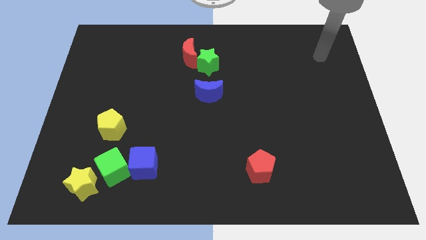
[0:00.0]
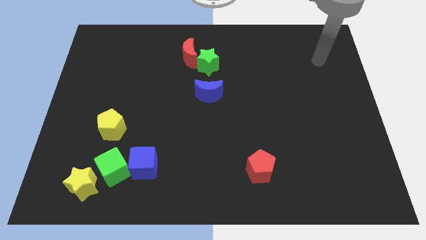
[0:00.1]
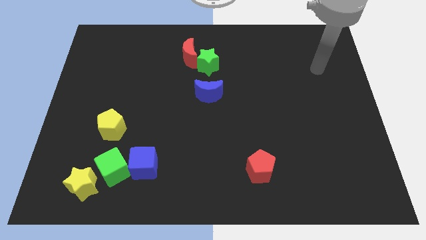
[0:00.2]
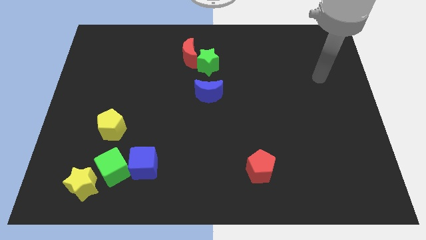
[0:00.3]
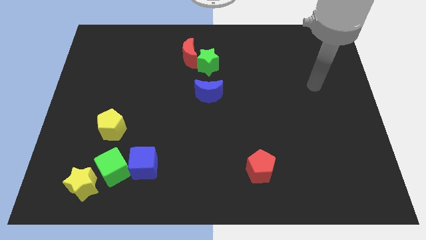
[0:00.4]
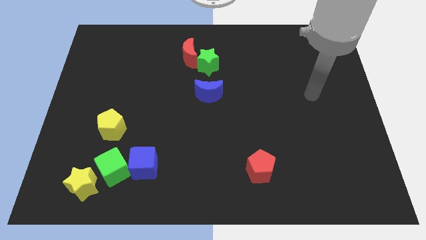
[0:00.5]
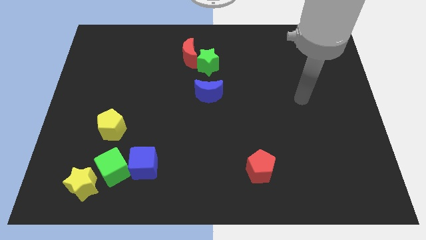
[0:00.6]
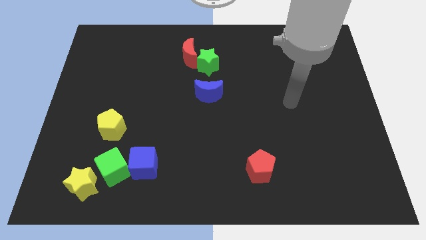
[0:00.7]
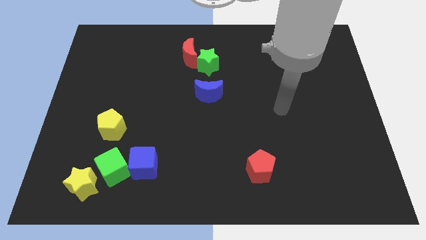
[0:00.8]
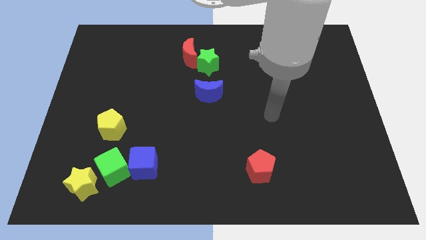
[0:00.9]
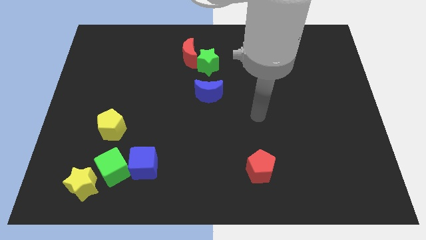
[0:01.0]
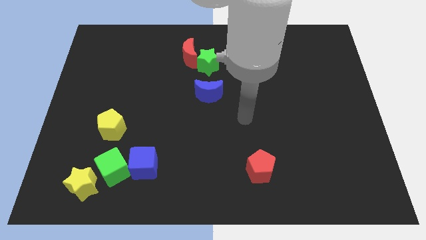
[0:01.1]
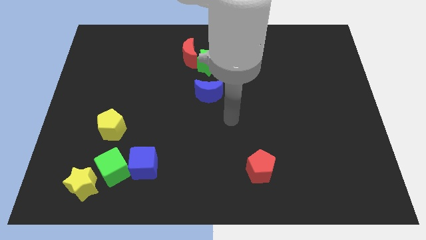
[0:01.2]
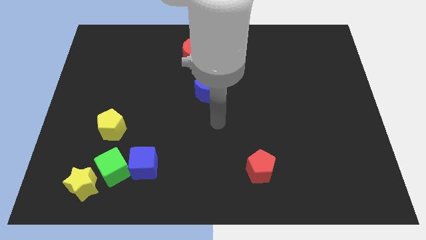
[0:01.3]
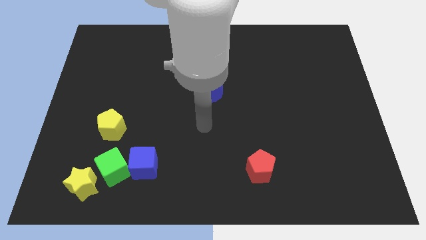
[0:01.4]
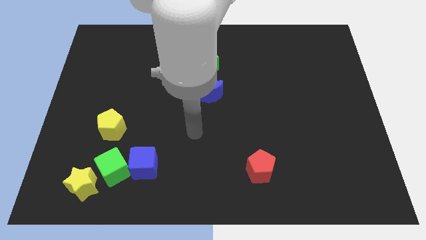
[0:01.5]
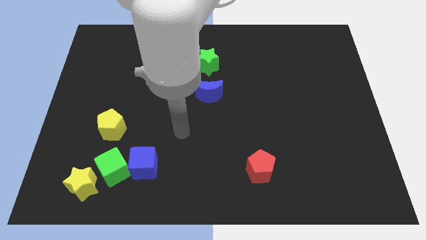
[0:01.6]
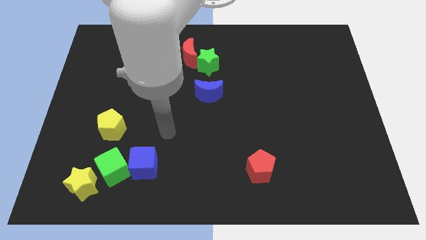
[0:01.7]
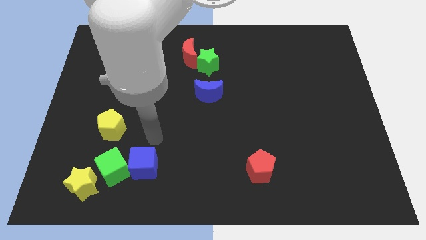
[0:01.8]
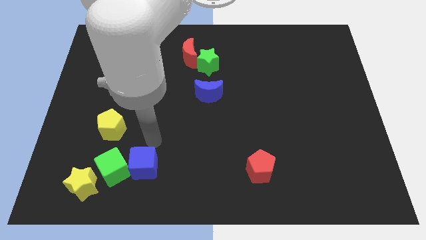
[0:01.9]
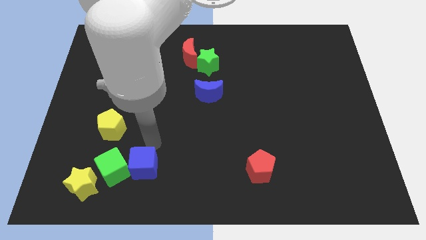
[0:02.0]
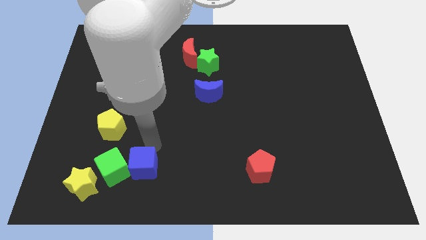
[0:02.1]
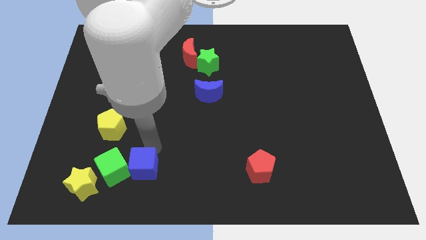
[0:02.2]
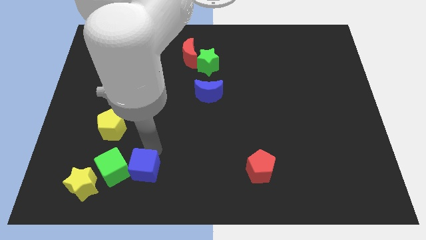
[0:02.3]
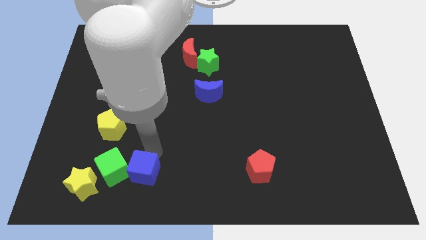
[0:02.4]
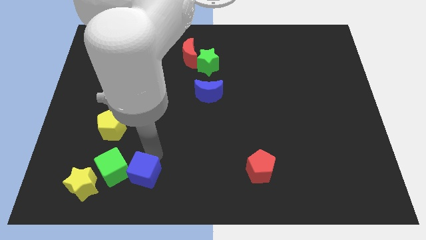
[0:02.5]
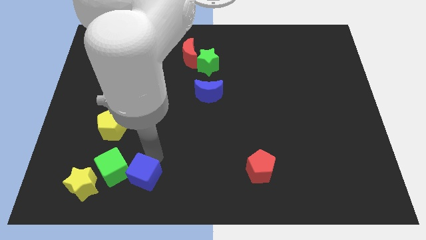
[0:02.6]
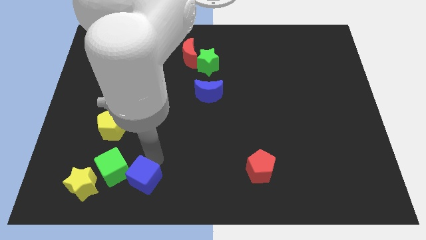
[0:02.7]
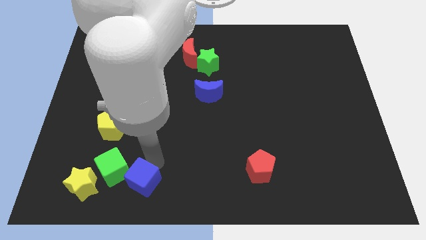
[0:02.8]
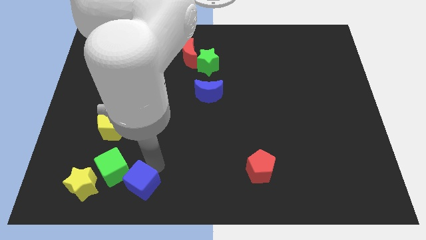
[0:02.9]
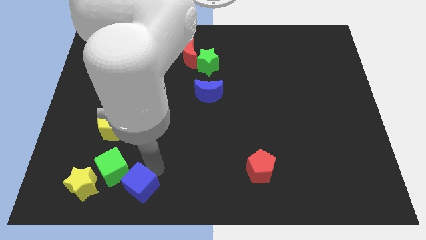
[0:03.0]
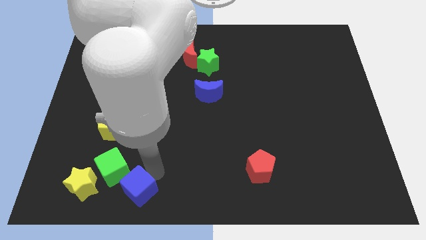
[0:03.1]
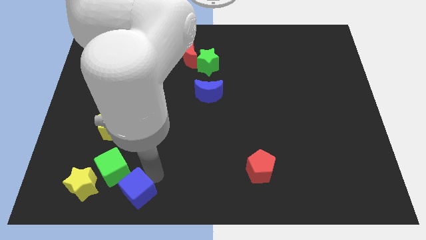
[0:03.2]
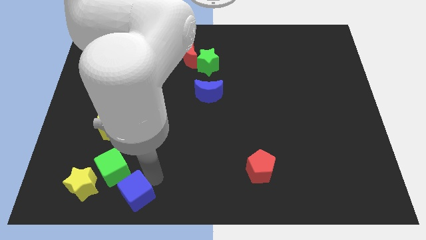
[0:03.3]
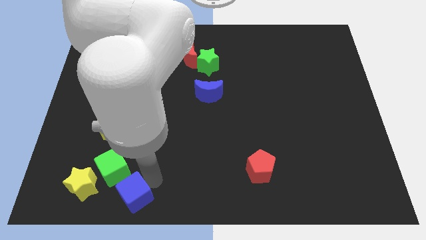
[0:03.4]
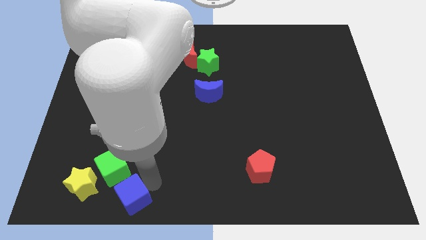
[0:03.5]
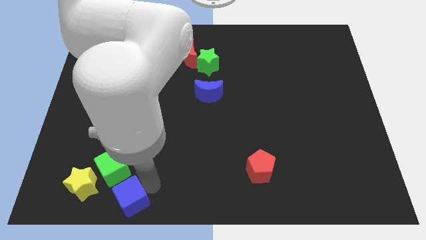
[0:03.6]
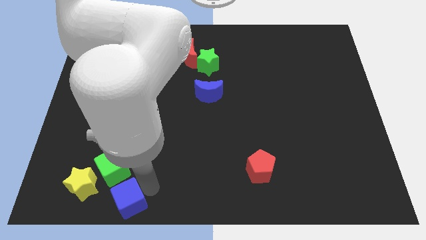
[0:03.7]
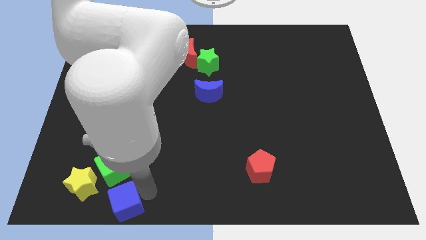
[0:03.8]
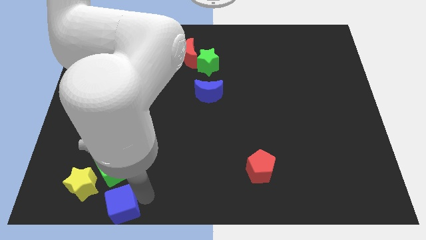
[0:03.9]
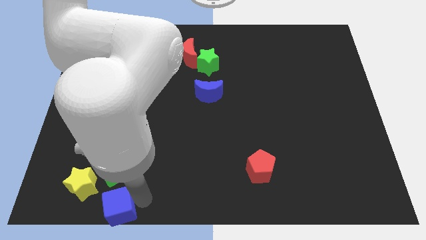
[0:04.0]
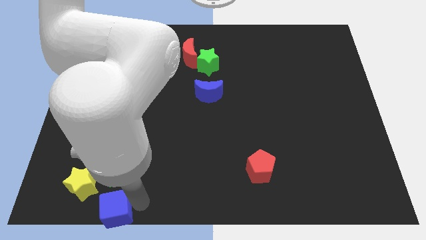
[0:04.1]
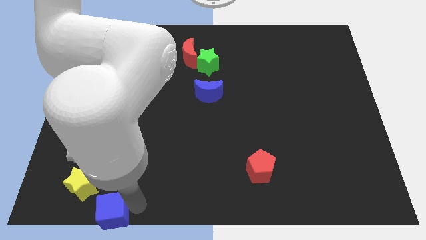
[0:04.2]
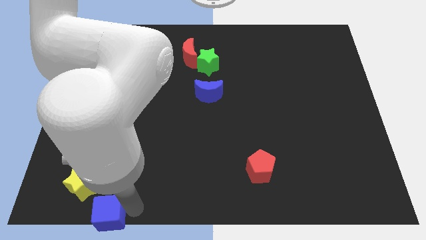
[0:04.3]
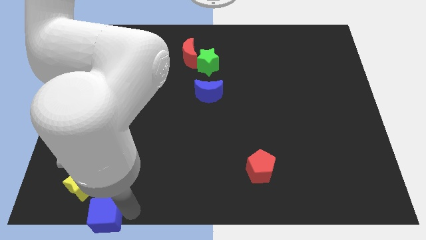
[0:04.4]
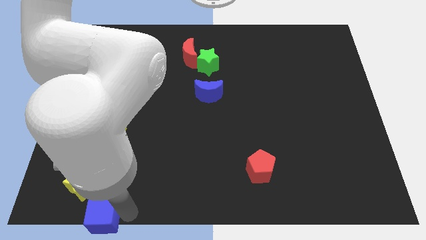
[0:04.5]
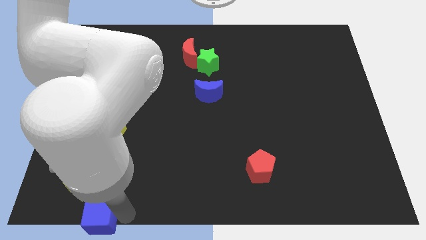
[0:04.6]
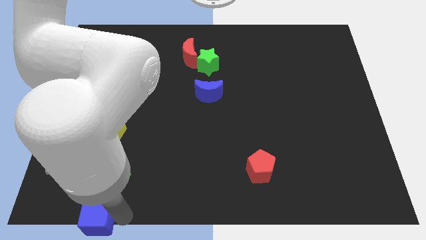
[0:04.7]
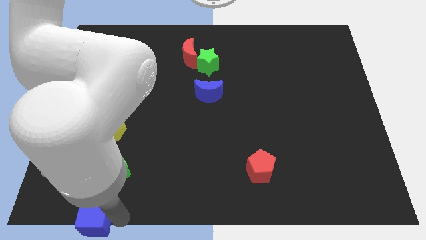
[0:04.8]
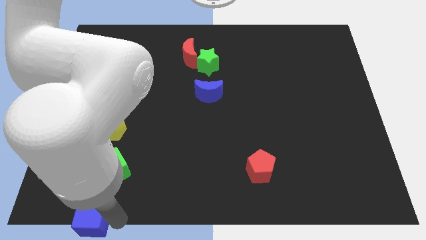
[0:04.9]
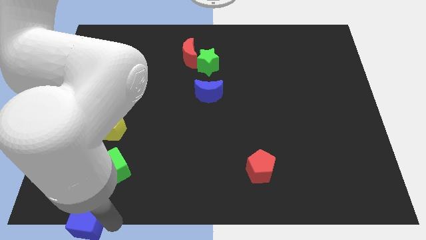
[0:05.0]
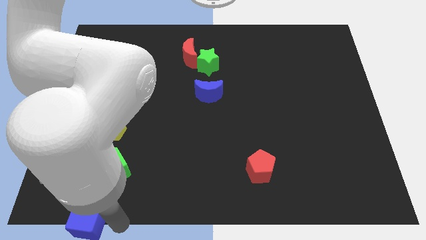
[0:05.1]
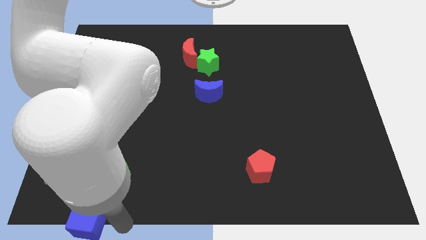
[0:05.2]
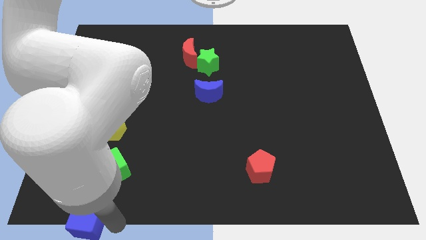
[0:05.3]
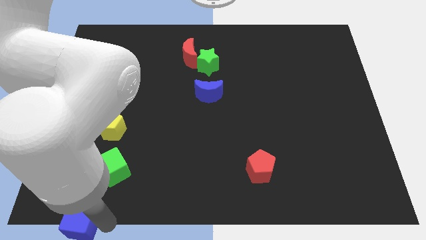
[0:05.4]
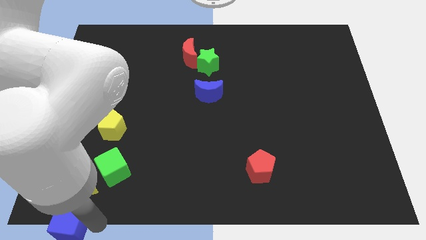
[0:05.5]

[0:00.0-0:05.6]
move the blue cube to the bottom left corner
